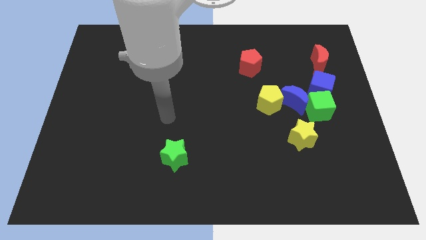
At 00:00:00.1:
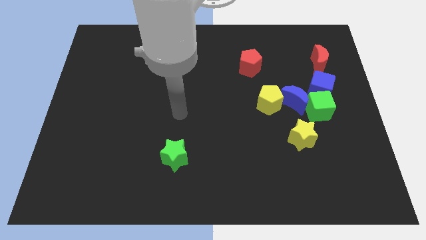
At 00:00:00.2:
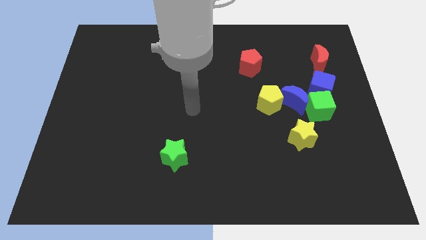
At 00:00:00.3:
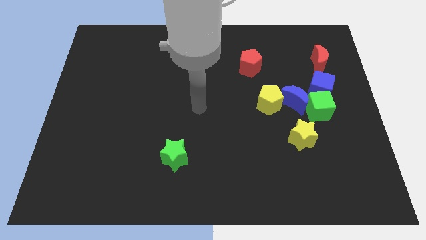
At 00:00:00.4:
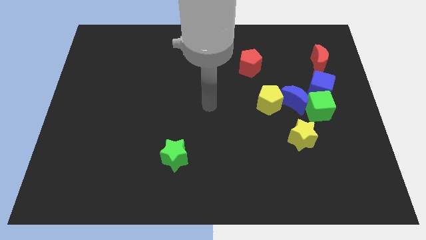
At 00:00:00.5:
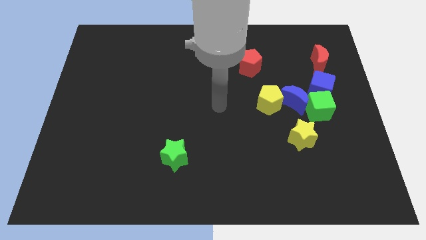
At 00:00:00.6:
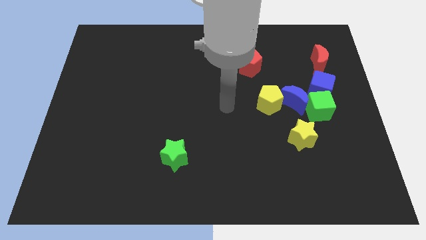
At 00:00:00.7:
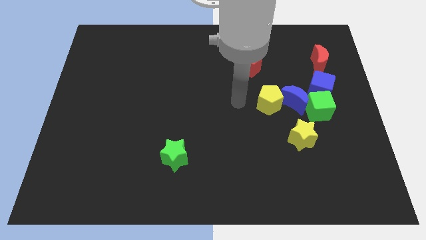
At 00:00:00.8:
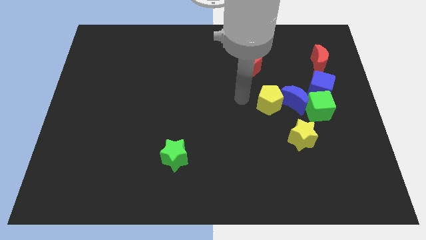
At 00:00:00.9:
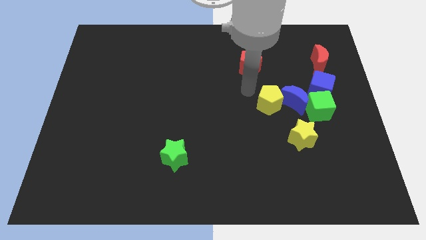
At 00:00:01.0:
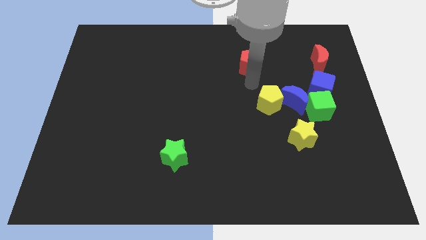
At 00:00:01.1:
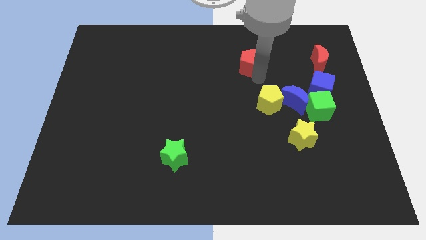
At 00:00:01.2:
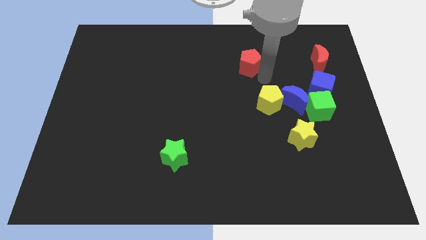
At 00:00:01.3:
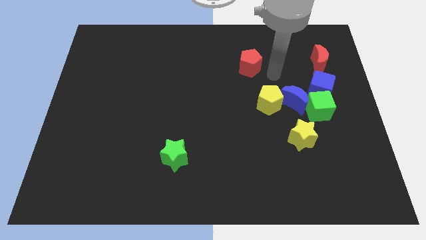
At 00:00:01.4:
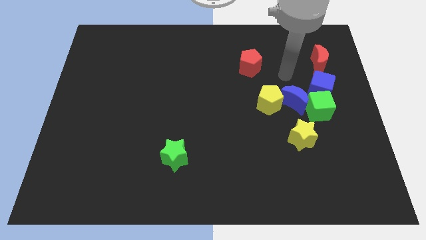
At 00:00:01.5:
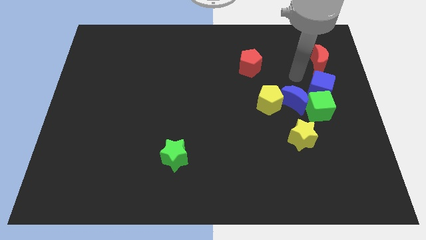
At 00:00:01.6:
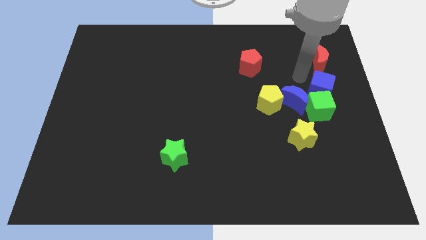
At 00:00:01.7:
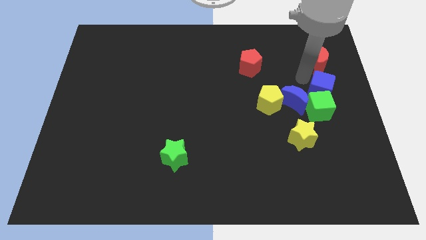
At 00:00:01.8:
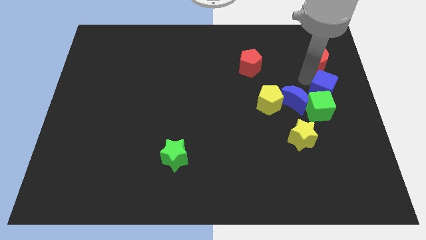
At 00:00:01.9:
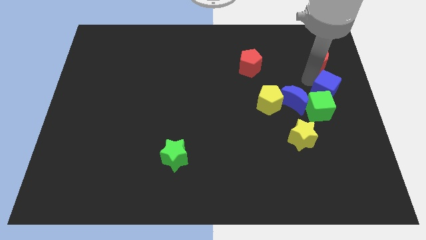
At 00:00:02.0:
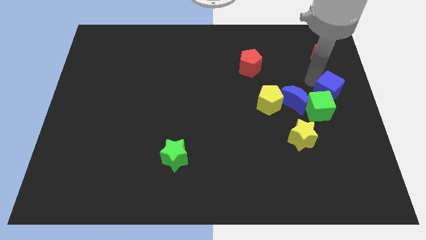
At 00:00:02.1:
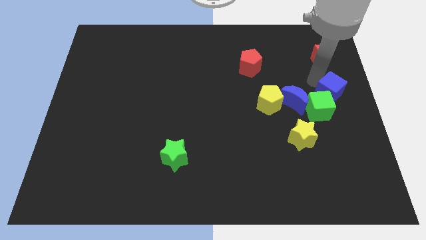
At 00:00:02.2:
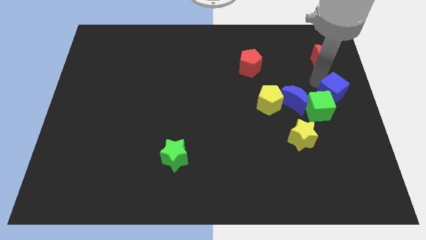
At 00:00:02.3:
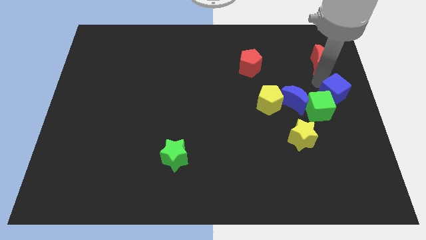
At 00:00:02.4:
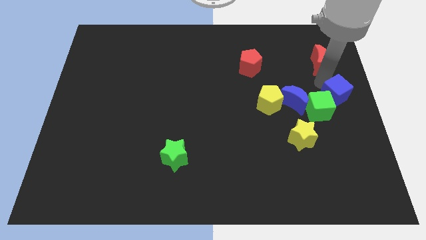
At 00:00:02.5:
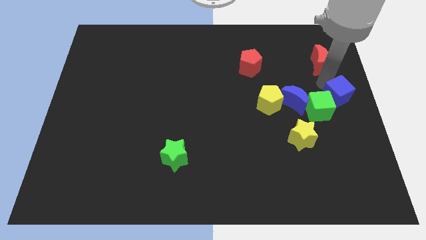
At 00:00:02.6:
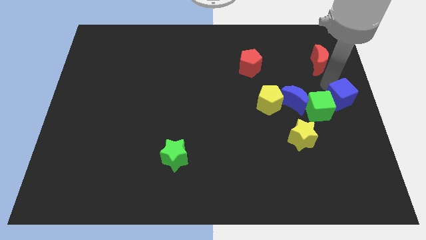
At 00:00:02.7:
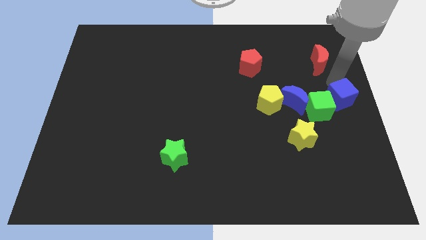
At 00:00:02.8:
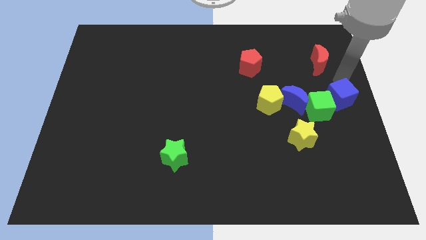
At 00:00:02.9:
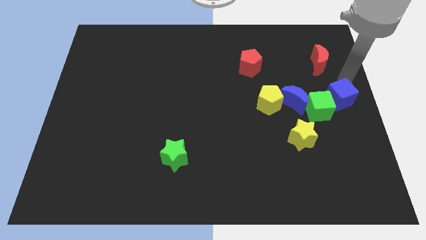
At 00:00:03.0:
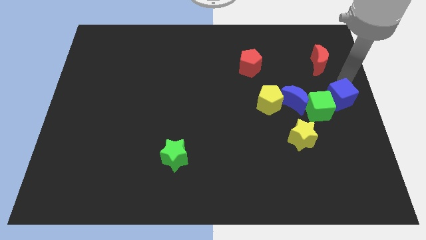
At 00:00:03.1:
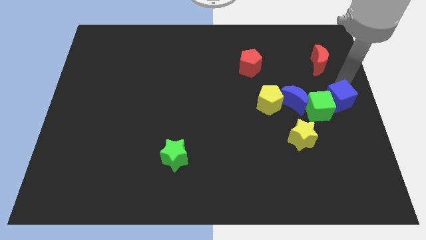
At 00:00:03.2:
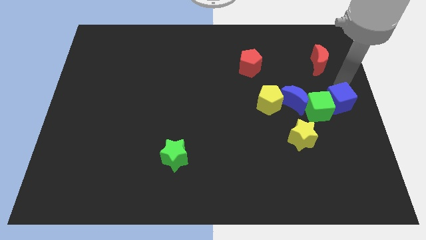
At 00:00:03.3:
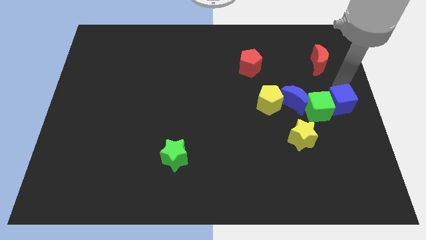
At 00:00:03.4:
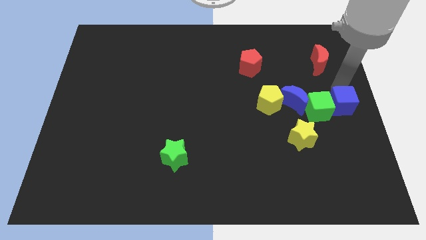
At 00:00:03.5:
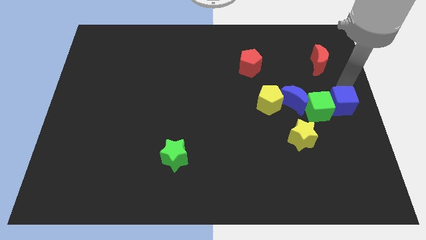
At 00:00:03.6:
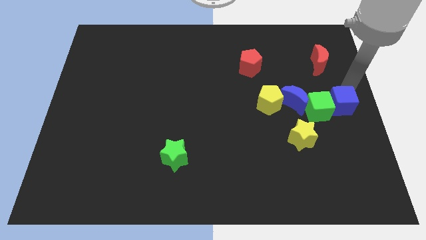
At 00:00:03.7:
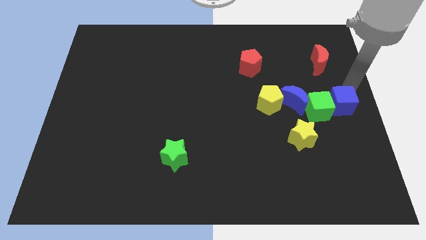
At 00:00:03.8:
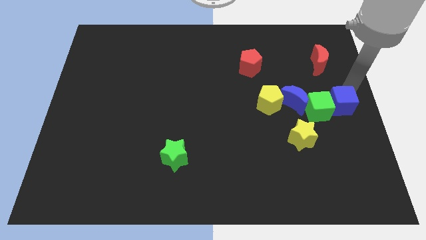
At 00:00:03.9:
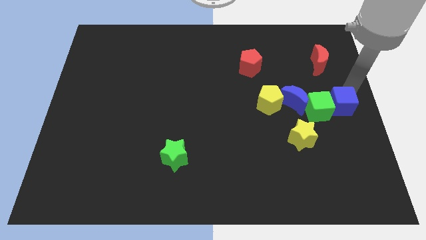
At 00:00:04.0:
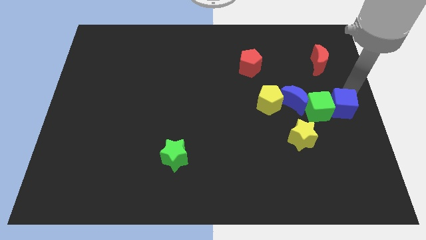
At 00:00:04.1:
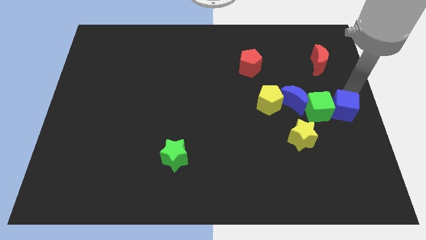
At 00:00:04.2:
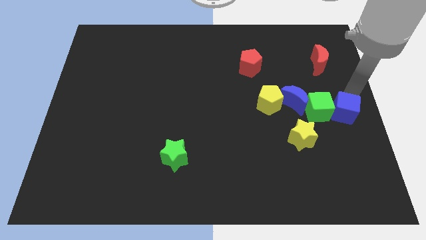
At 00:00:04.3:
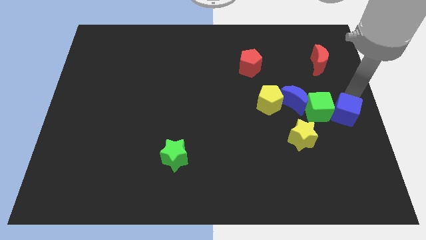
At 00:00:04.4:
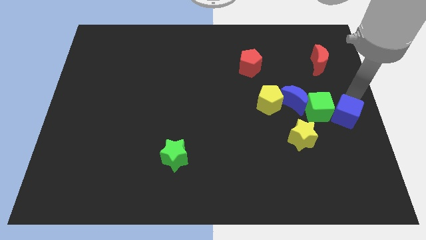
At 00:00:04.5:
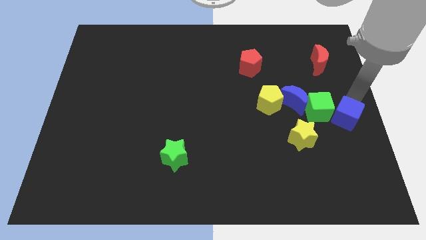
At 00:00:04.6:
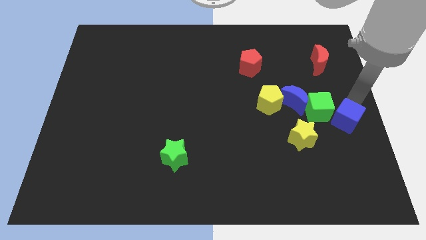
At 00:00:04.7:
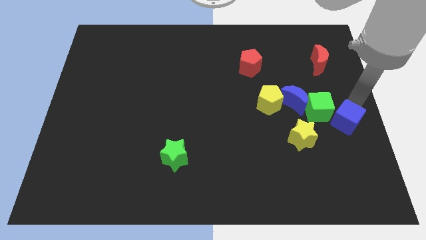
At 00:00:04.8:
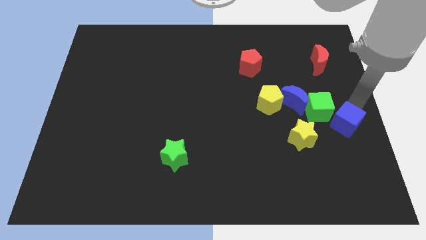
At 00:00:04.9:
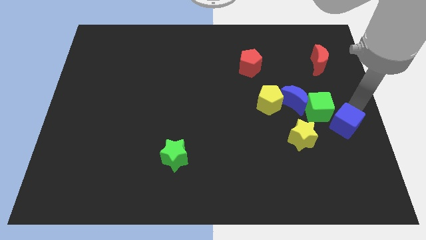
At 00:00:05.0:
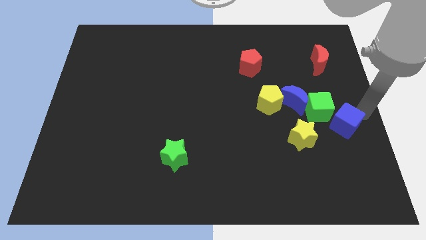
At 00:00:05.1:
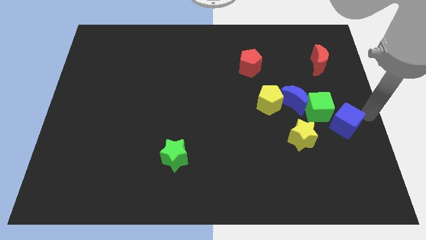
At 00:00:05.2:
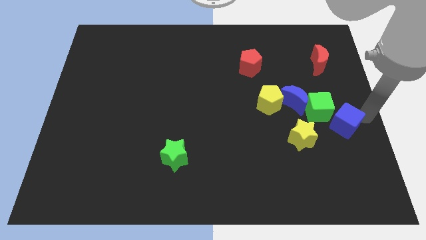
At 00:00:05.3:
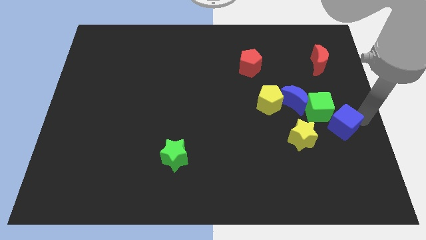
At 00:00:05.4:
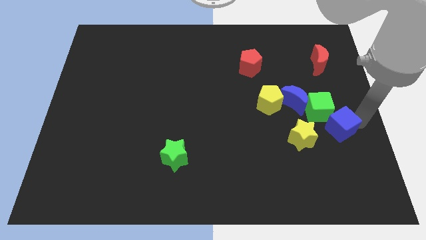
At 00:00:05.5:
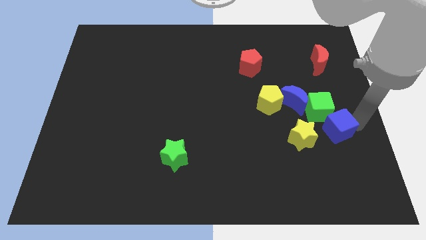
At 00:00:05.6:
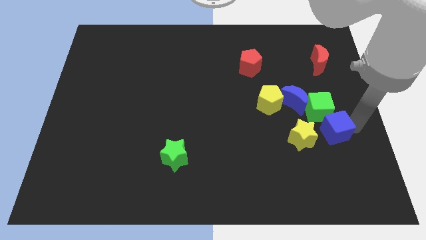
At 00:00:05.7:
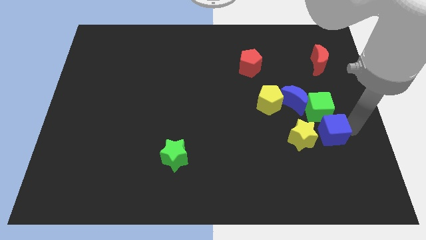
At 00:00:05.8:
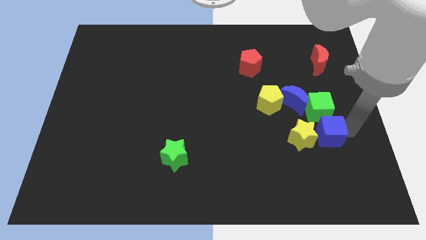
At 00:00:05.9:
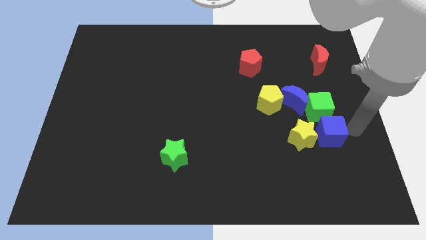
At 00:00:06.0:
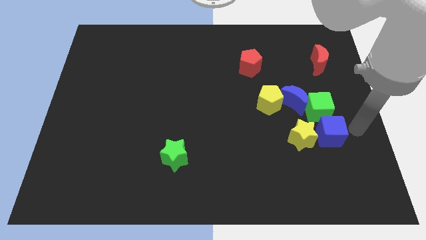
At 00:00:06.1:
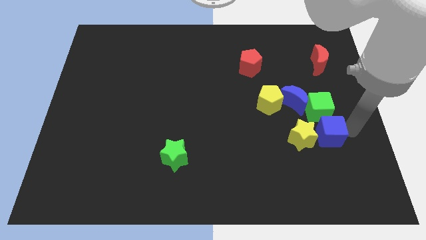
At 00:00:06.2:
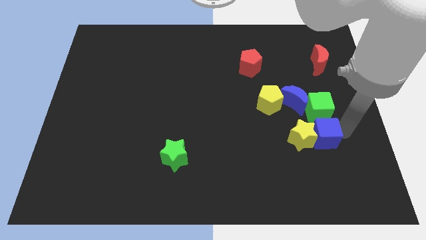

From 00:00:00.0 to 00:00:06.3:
put the blue cube next to the yellow star

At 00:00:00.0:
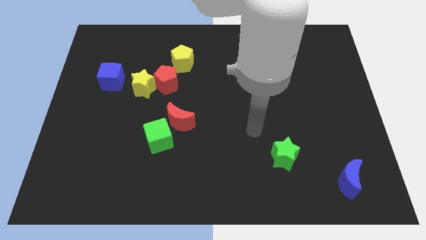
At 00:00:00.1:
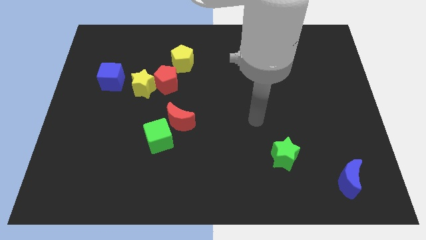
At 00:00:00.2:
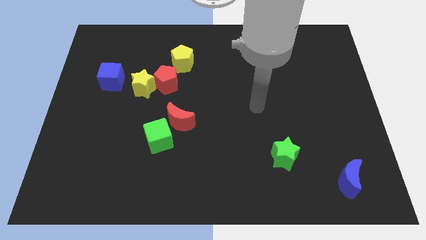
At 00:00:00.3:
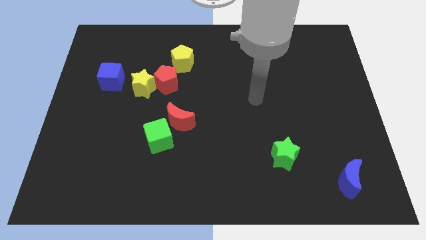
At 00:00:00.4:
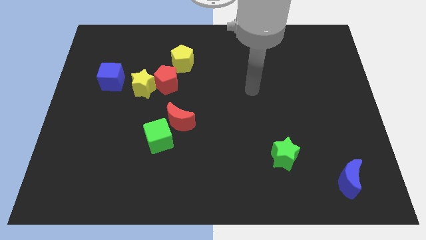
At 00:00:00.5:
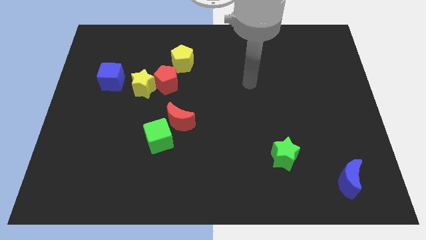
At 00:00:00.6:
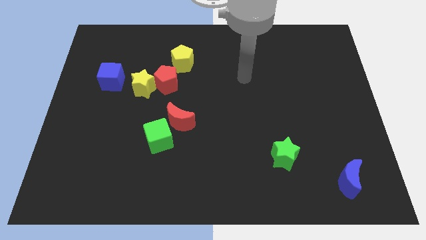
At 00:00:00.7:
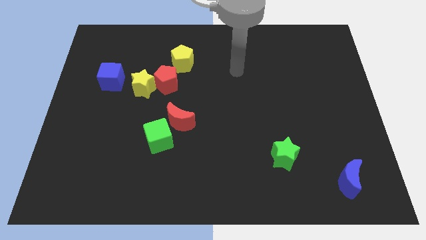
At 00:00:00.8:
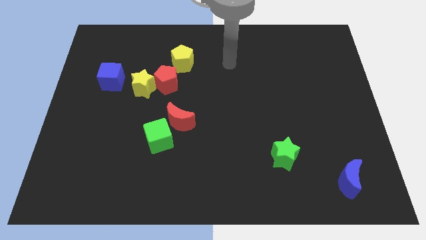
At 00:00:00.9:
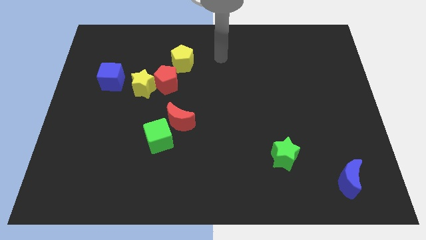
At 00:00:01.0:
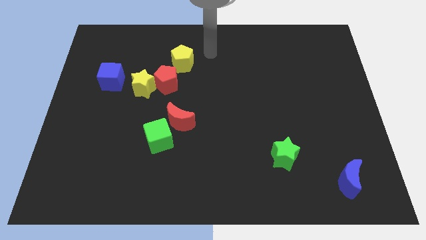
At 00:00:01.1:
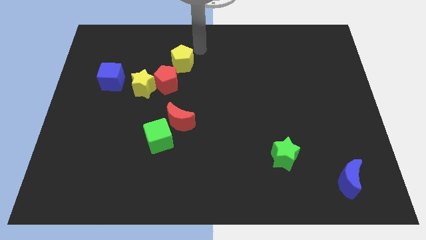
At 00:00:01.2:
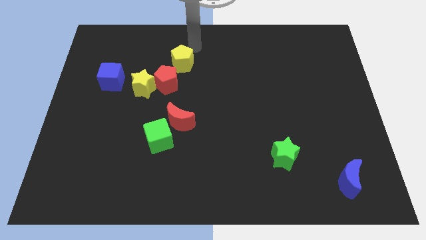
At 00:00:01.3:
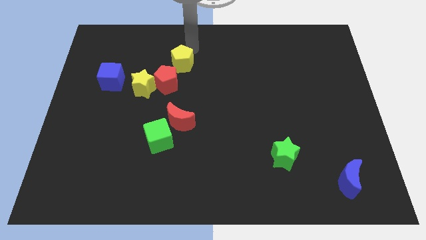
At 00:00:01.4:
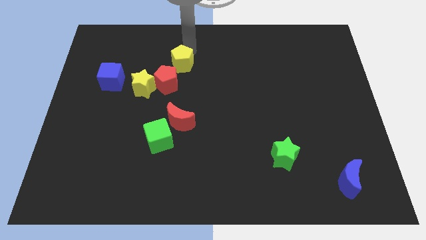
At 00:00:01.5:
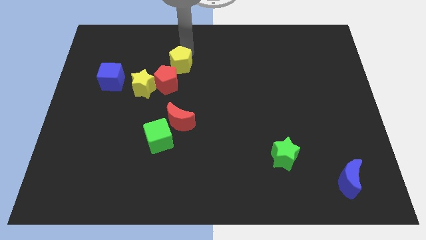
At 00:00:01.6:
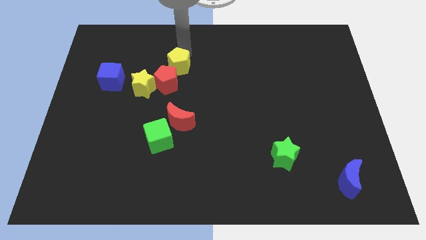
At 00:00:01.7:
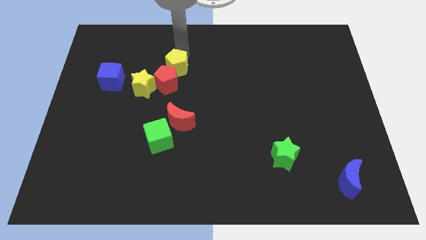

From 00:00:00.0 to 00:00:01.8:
slide the yellow pentagon to the red pentagon
